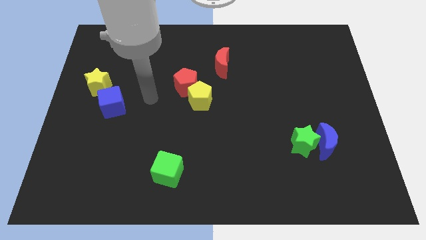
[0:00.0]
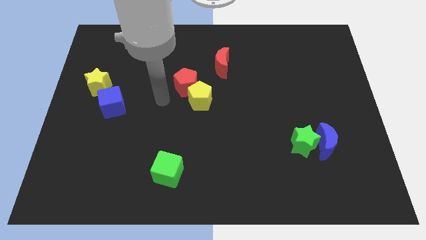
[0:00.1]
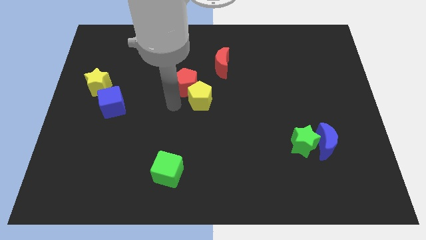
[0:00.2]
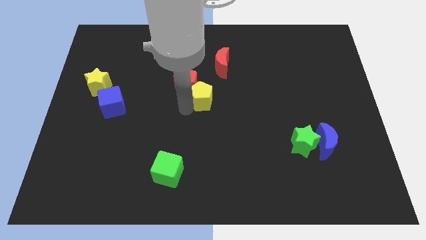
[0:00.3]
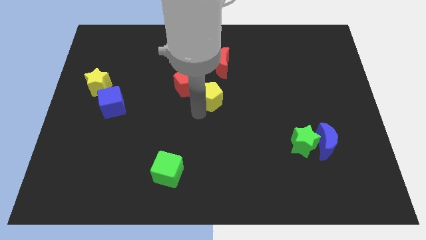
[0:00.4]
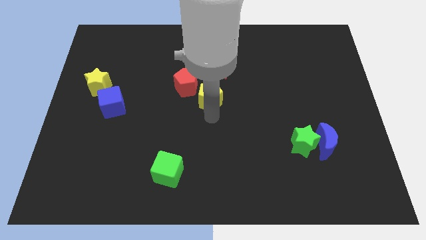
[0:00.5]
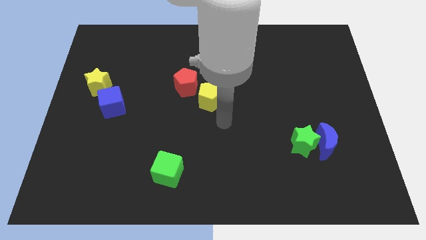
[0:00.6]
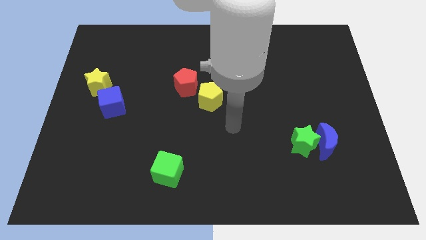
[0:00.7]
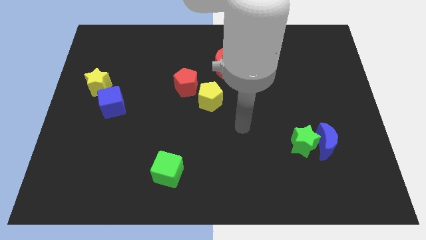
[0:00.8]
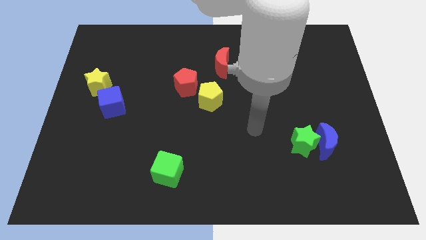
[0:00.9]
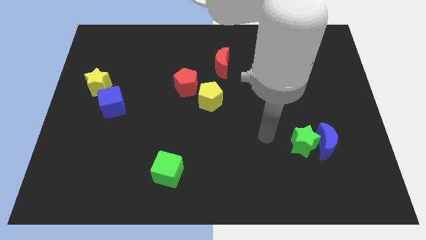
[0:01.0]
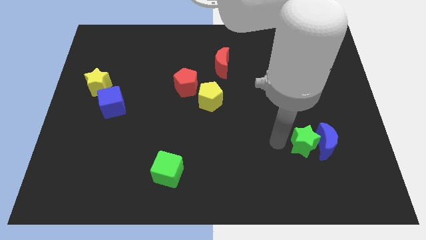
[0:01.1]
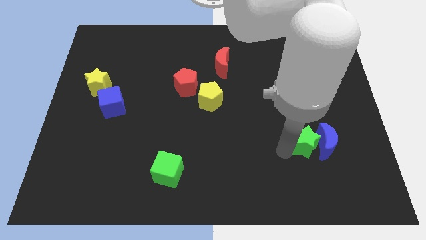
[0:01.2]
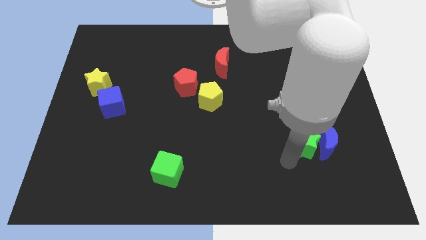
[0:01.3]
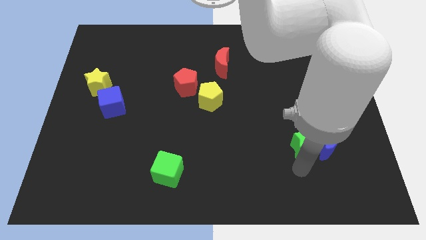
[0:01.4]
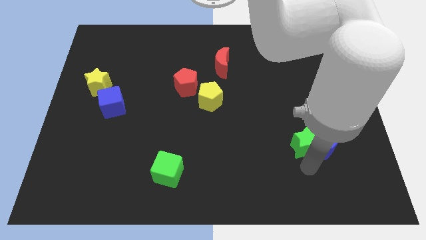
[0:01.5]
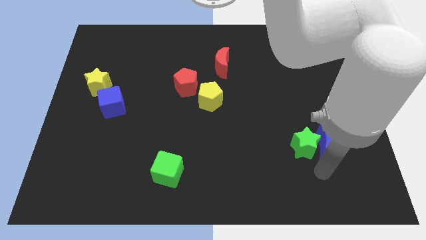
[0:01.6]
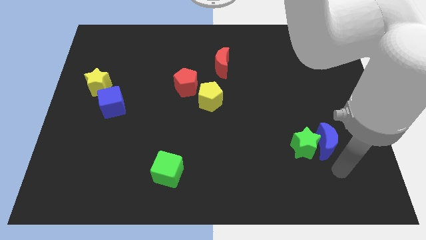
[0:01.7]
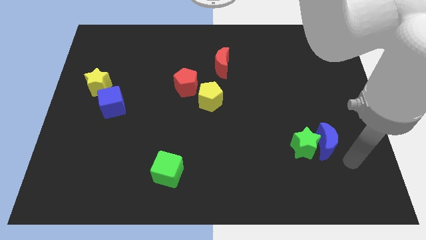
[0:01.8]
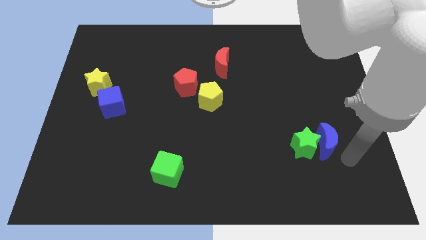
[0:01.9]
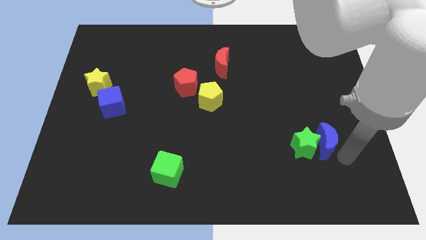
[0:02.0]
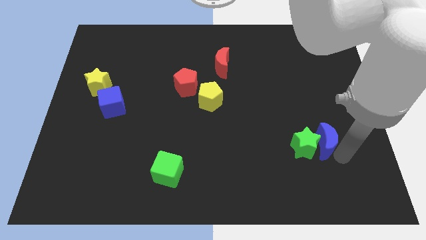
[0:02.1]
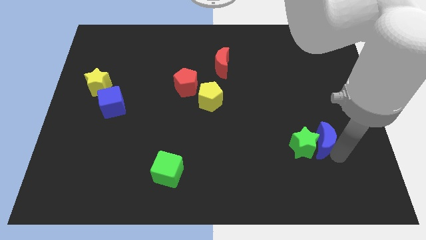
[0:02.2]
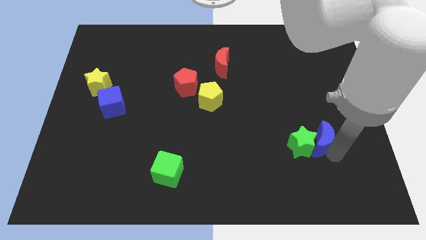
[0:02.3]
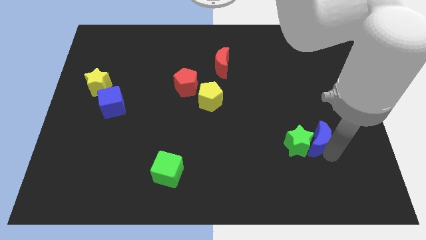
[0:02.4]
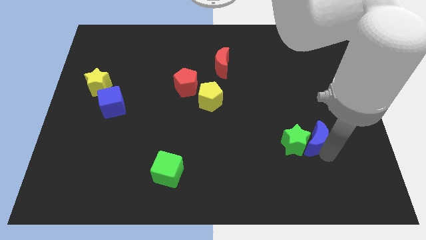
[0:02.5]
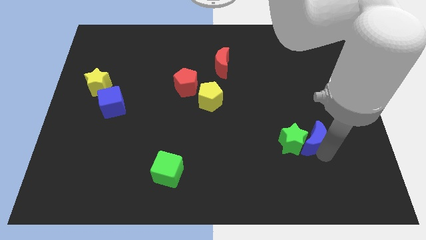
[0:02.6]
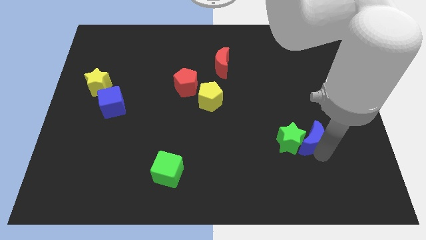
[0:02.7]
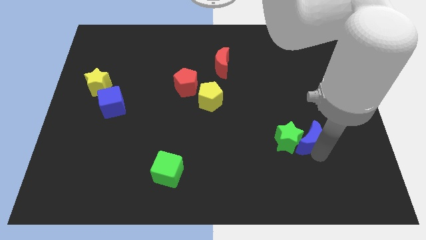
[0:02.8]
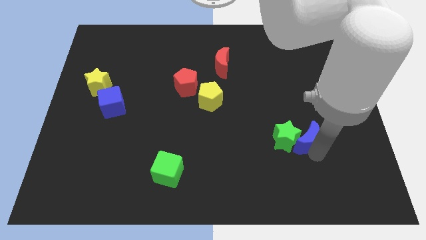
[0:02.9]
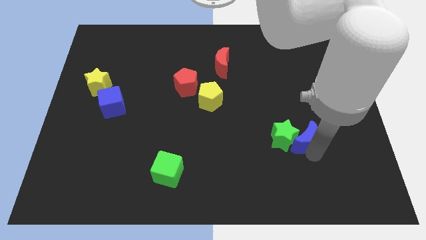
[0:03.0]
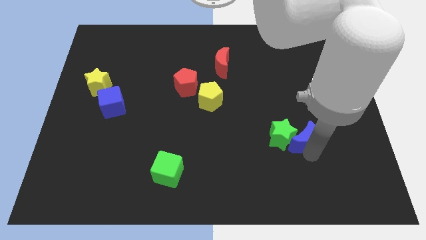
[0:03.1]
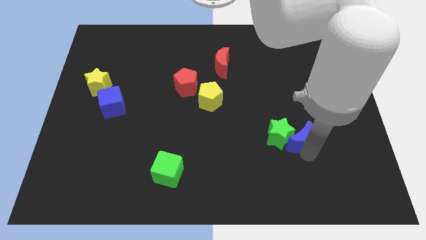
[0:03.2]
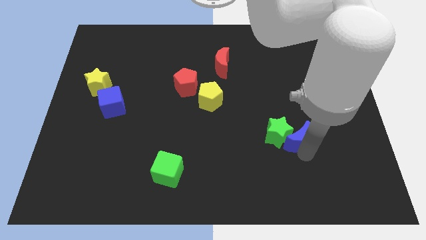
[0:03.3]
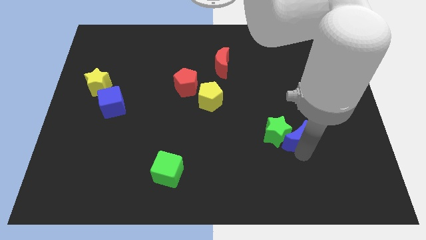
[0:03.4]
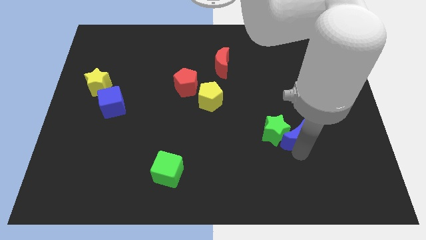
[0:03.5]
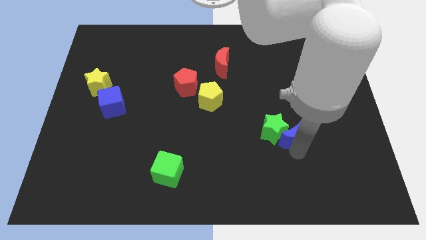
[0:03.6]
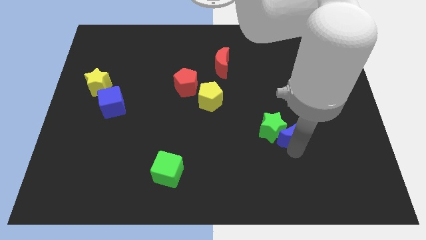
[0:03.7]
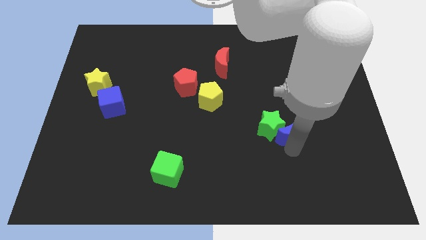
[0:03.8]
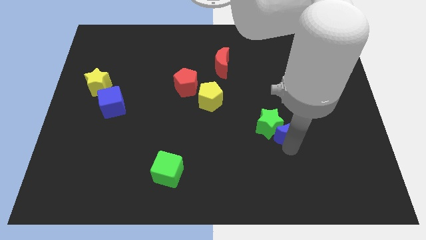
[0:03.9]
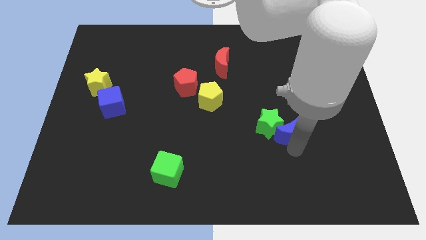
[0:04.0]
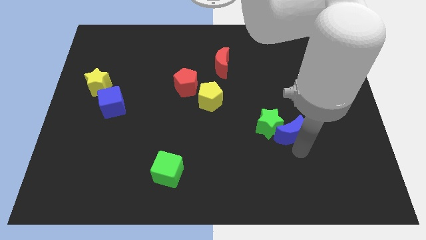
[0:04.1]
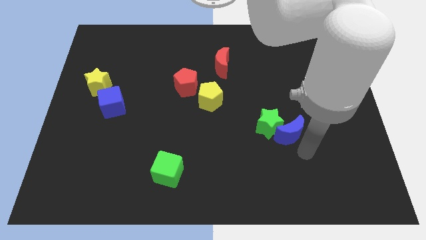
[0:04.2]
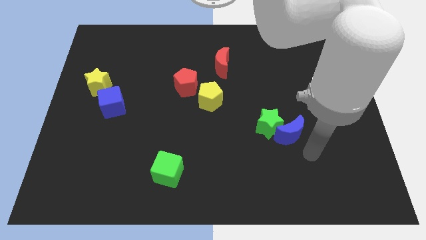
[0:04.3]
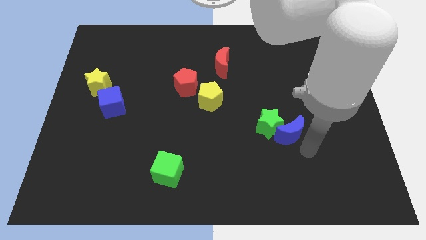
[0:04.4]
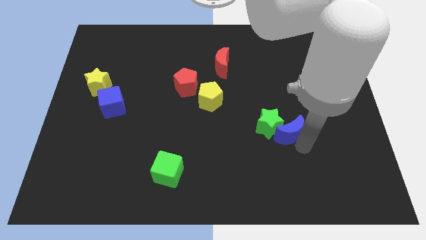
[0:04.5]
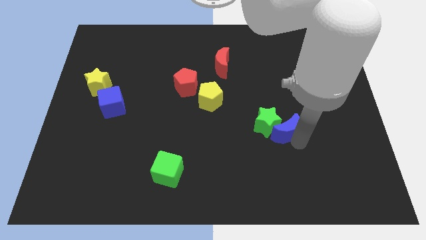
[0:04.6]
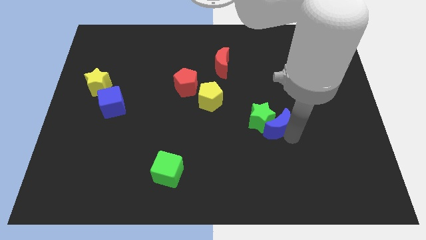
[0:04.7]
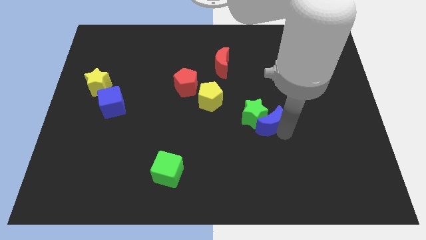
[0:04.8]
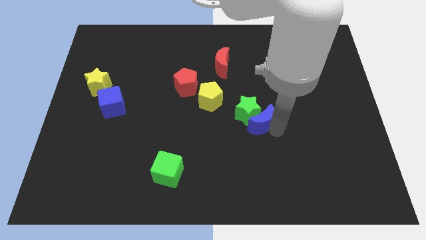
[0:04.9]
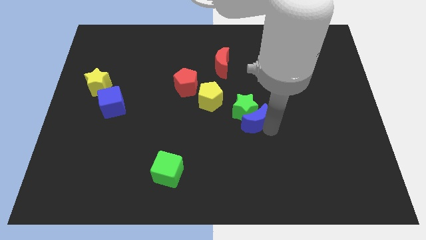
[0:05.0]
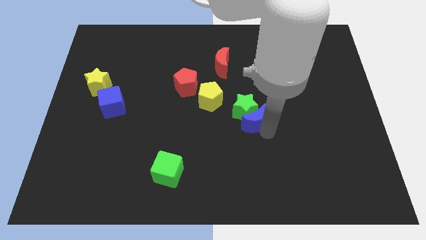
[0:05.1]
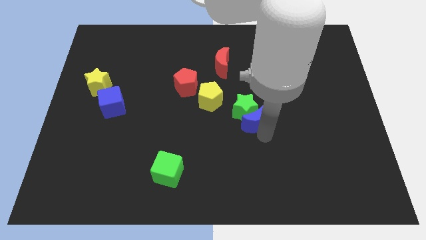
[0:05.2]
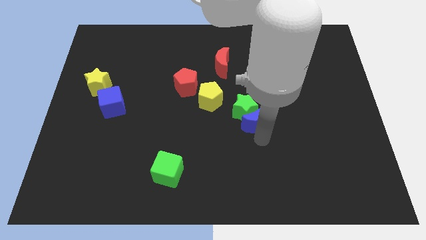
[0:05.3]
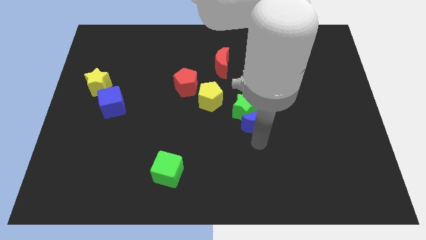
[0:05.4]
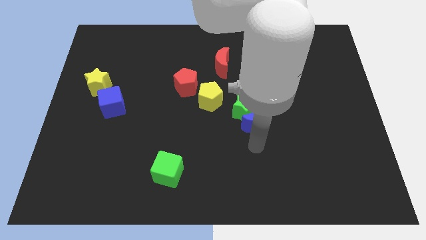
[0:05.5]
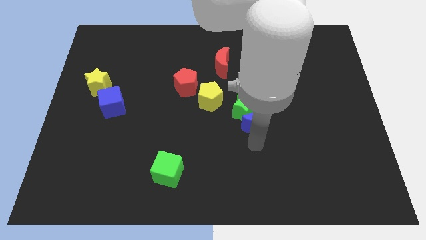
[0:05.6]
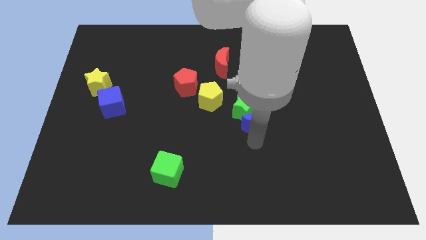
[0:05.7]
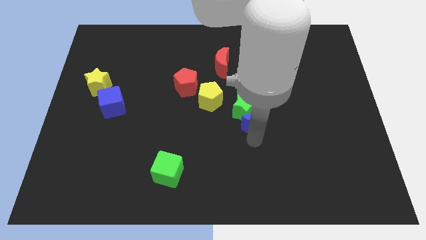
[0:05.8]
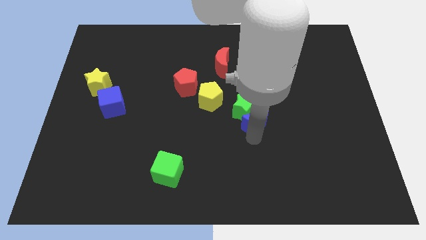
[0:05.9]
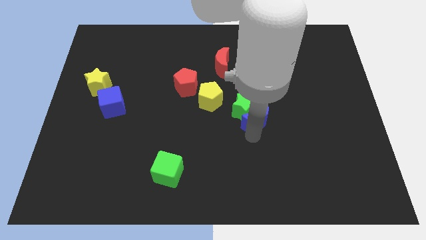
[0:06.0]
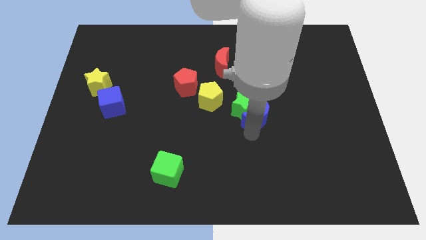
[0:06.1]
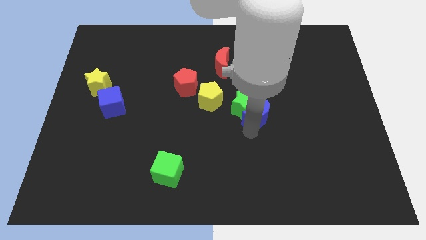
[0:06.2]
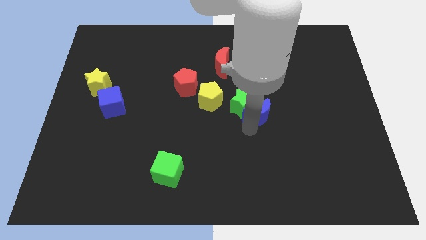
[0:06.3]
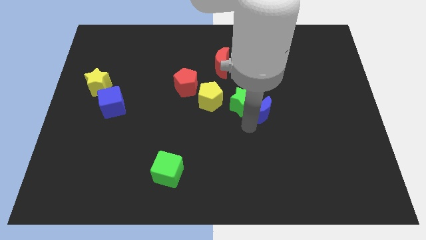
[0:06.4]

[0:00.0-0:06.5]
push the blue moon to the right side of the yellow pentagon

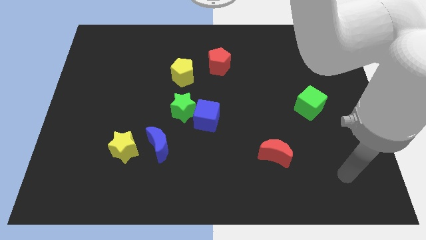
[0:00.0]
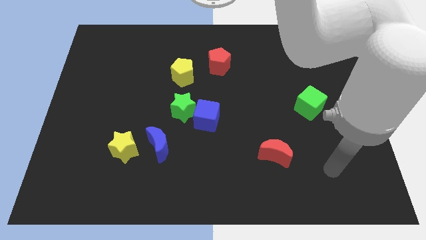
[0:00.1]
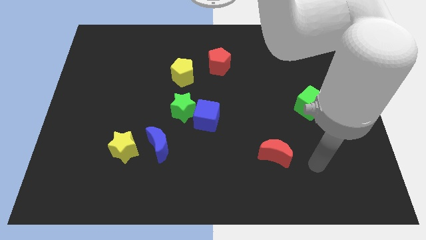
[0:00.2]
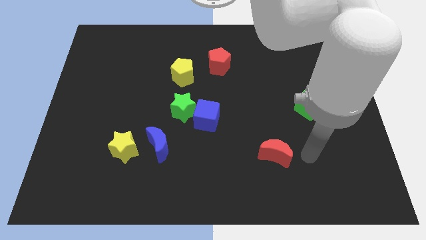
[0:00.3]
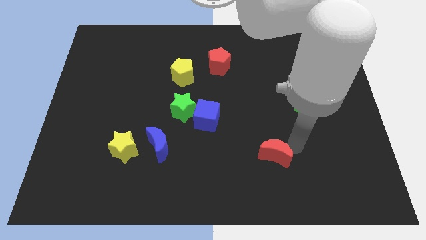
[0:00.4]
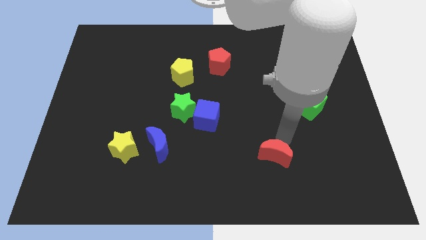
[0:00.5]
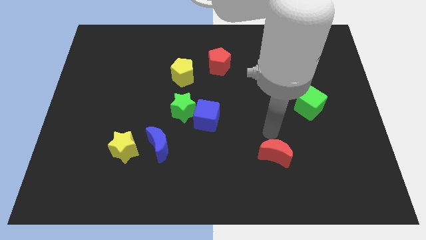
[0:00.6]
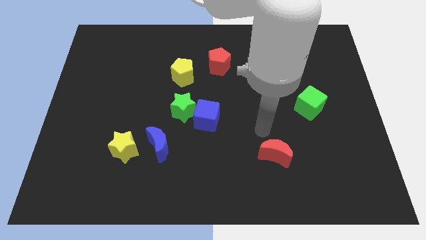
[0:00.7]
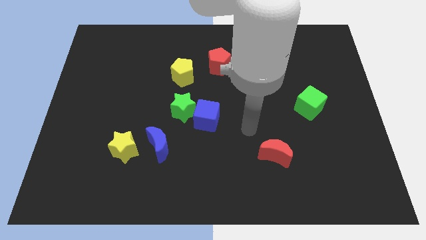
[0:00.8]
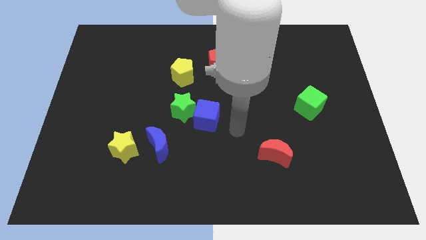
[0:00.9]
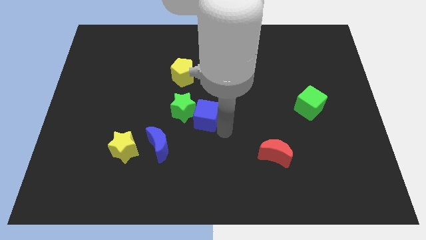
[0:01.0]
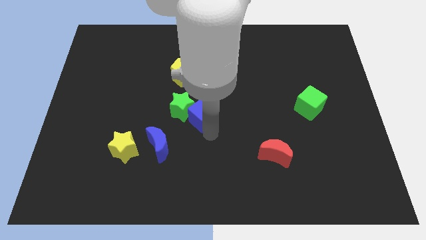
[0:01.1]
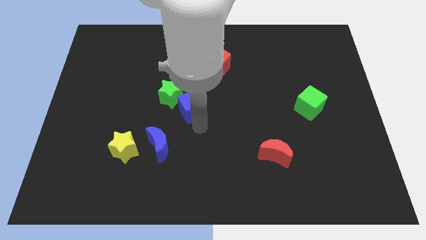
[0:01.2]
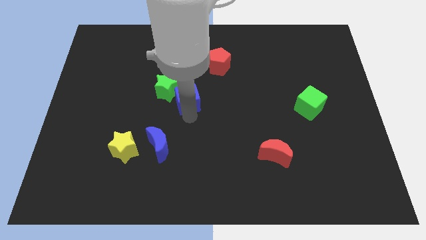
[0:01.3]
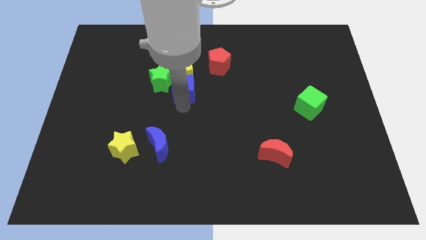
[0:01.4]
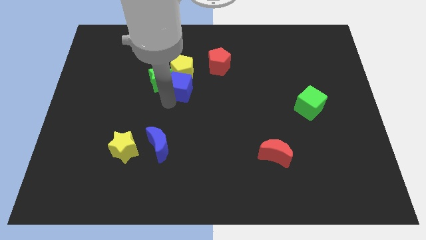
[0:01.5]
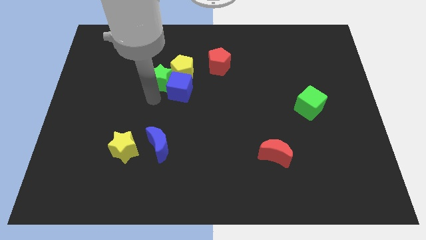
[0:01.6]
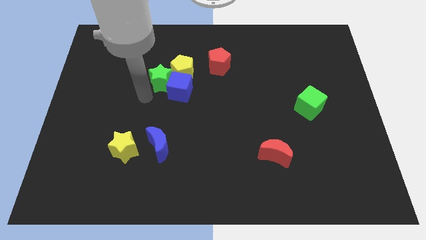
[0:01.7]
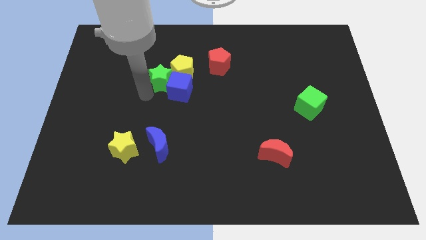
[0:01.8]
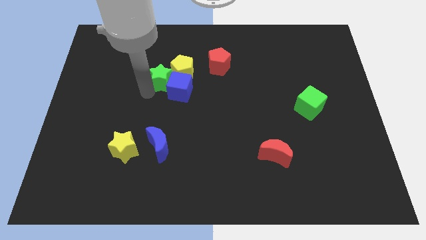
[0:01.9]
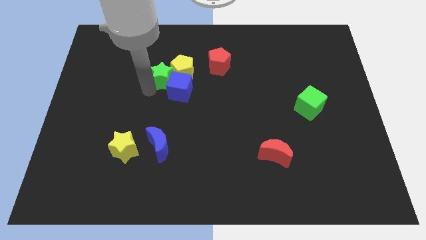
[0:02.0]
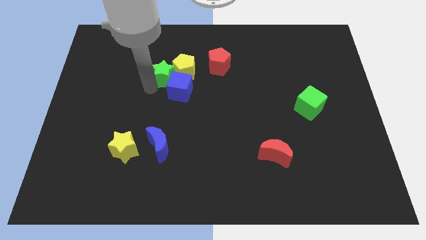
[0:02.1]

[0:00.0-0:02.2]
move the green star to the left of the red pentagon
